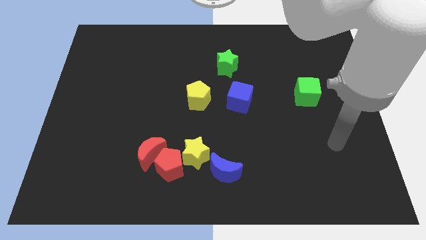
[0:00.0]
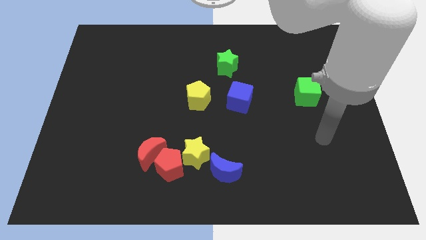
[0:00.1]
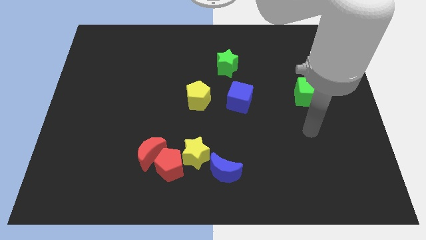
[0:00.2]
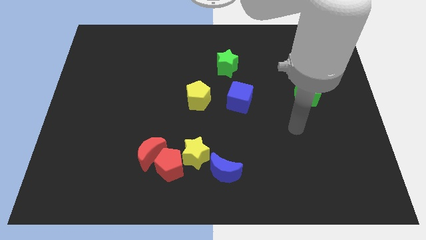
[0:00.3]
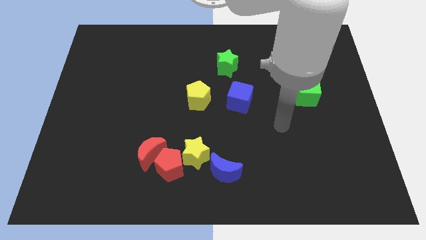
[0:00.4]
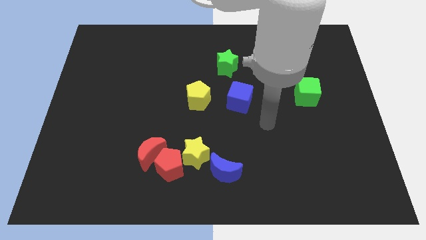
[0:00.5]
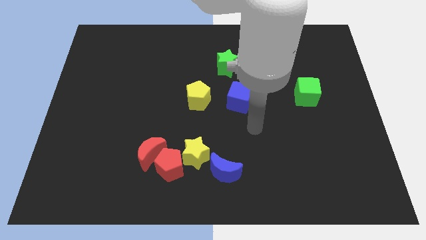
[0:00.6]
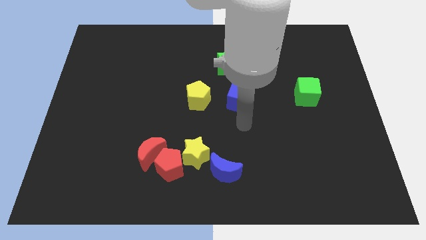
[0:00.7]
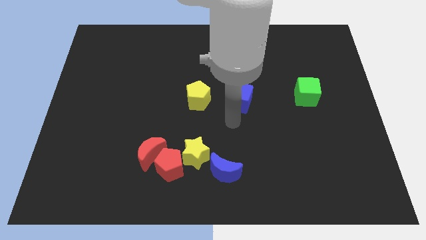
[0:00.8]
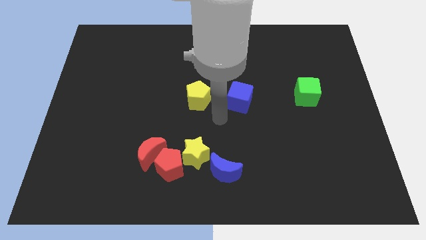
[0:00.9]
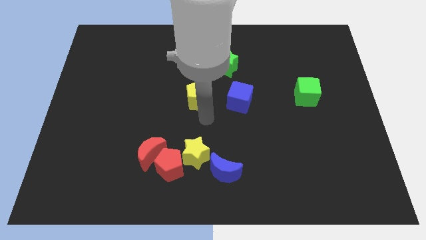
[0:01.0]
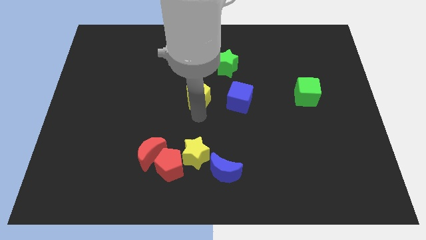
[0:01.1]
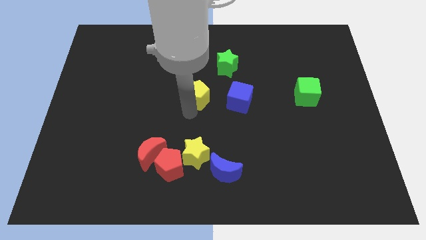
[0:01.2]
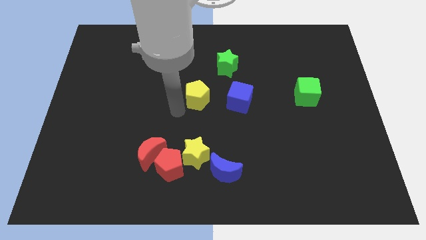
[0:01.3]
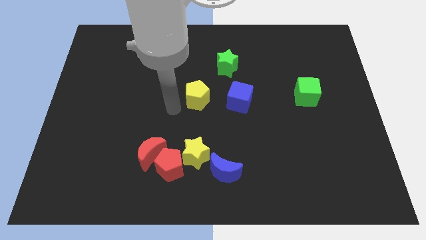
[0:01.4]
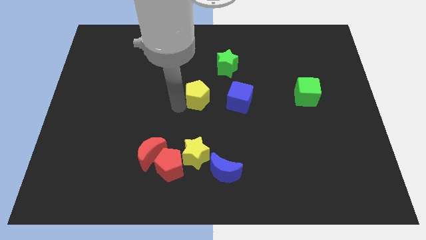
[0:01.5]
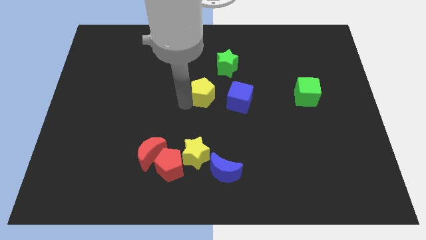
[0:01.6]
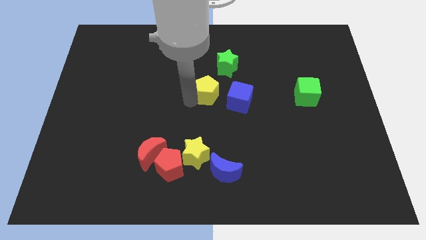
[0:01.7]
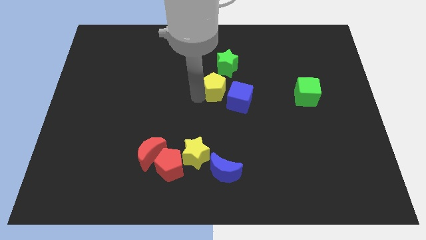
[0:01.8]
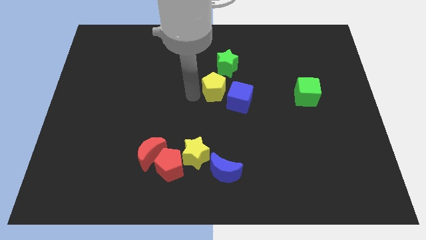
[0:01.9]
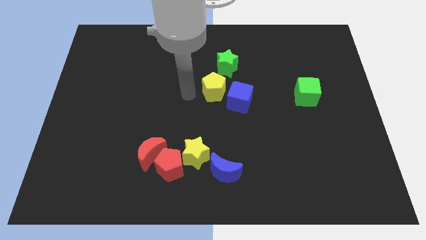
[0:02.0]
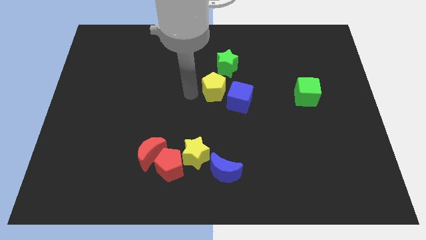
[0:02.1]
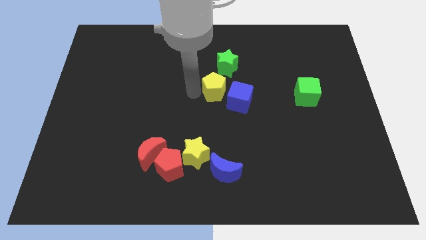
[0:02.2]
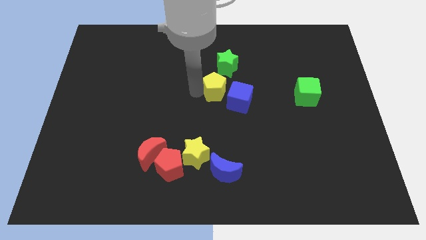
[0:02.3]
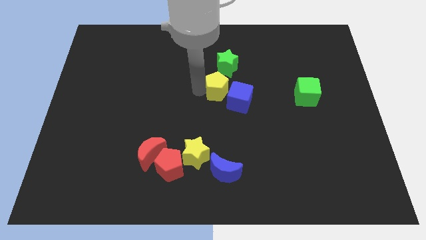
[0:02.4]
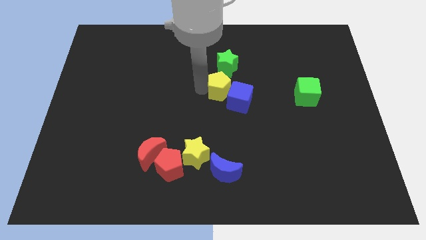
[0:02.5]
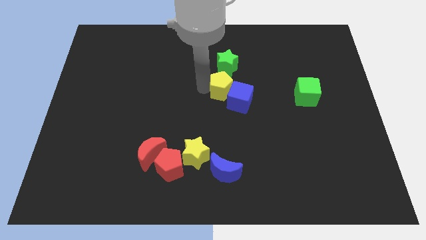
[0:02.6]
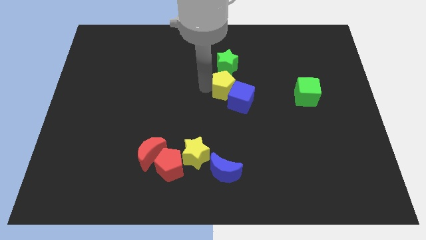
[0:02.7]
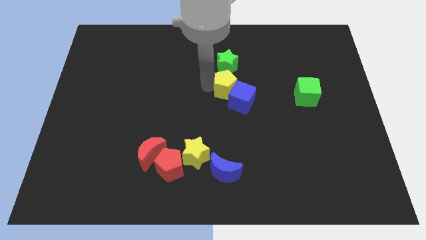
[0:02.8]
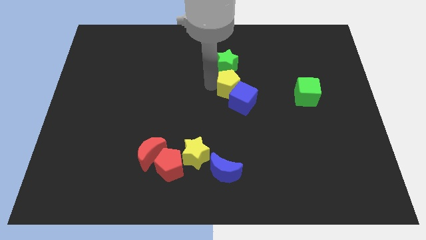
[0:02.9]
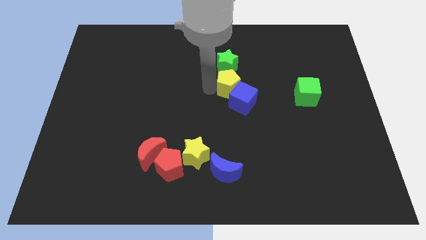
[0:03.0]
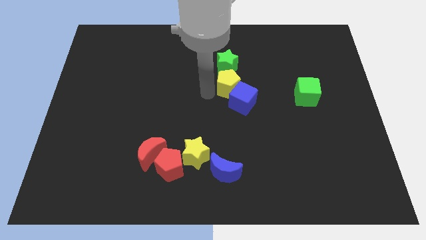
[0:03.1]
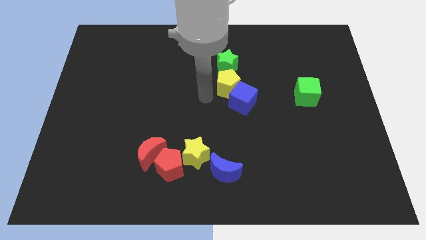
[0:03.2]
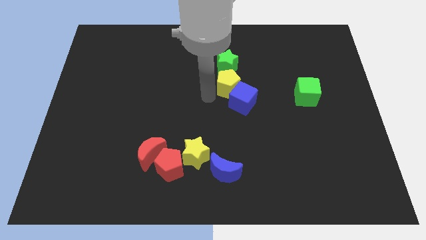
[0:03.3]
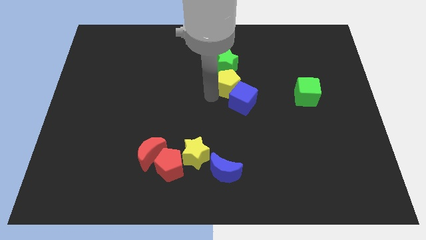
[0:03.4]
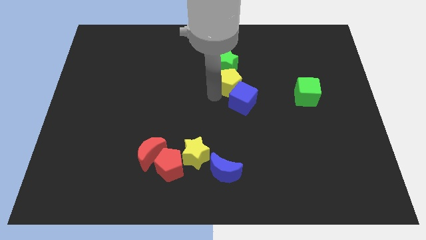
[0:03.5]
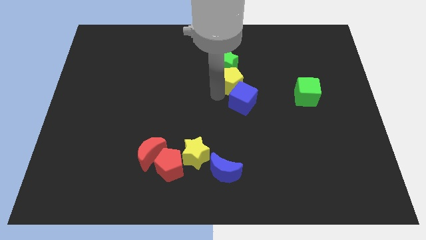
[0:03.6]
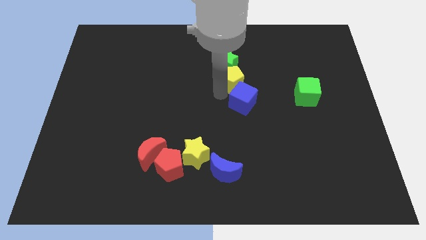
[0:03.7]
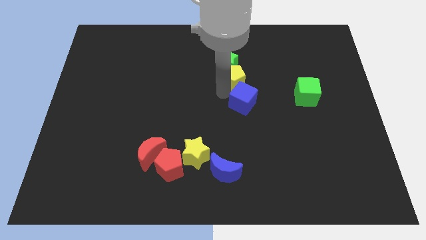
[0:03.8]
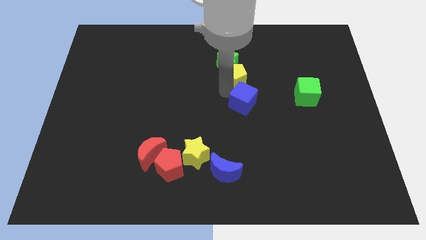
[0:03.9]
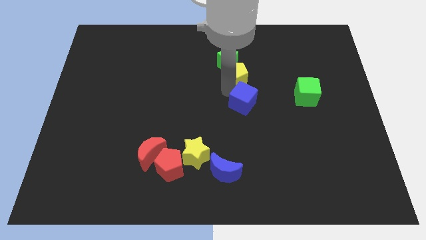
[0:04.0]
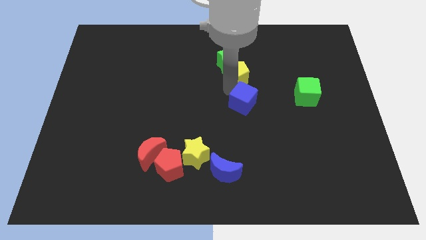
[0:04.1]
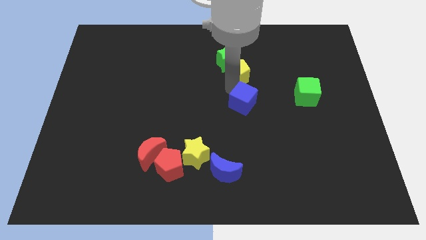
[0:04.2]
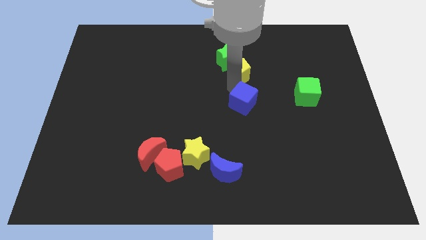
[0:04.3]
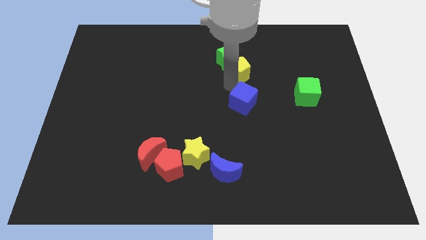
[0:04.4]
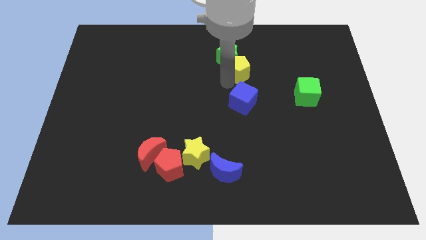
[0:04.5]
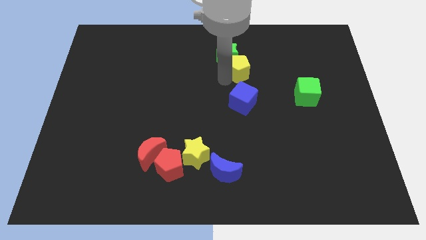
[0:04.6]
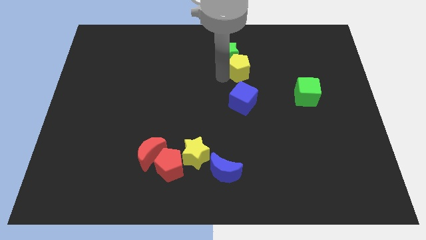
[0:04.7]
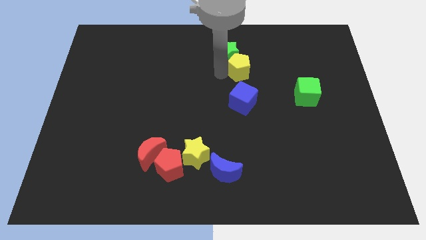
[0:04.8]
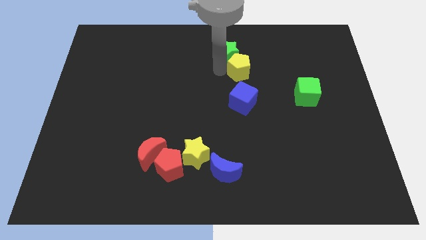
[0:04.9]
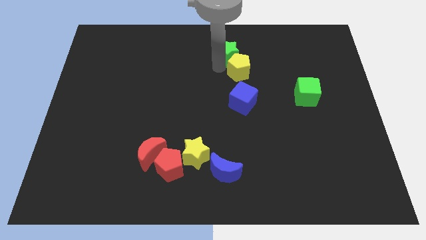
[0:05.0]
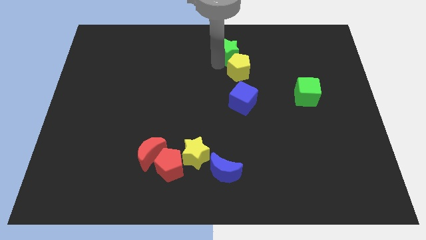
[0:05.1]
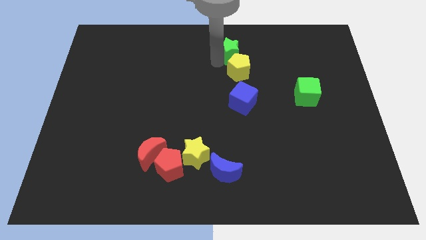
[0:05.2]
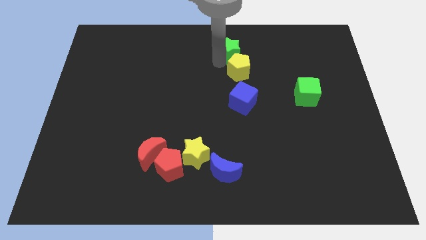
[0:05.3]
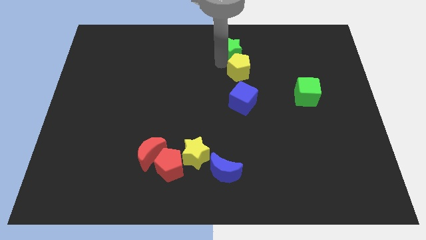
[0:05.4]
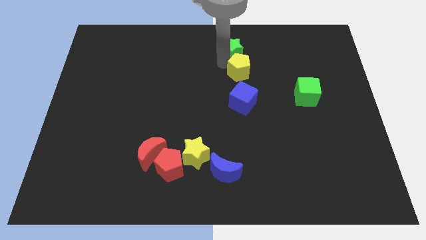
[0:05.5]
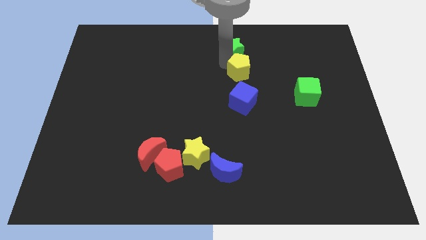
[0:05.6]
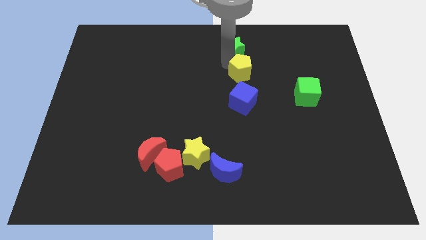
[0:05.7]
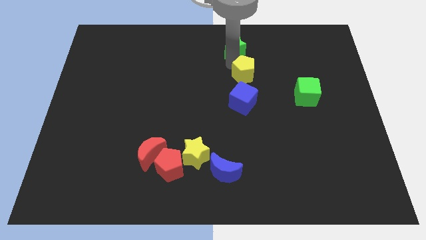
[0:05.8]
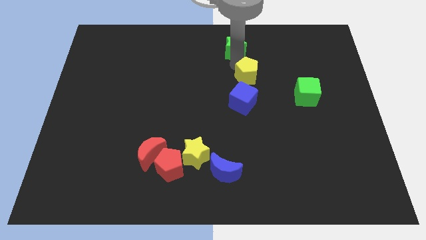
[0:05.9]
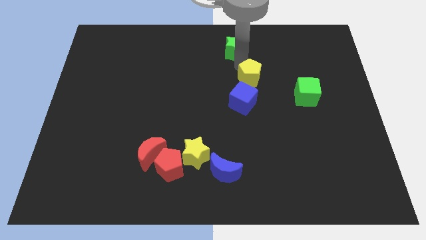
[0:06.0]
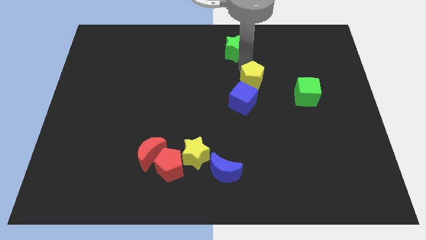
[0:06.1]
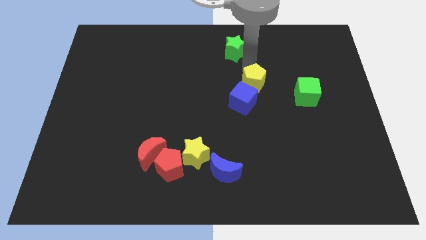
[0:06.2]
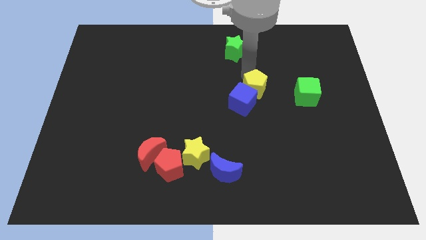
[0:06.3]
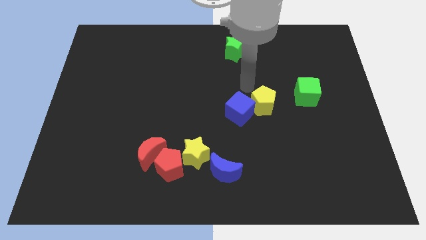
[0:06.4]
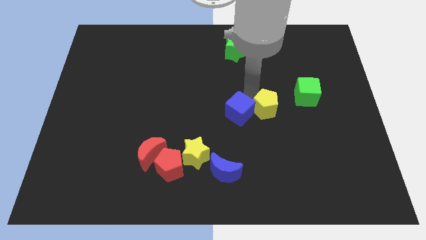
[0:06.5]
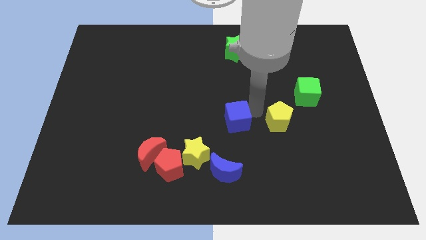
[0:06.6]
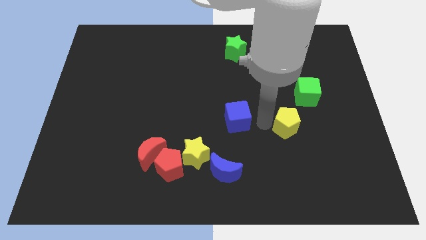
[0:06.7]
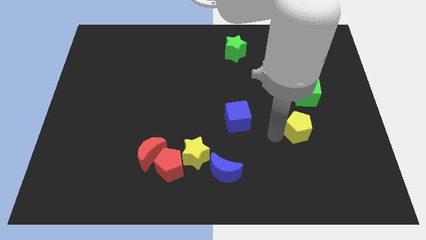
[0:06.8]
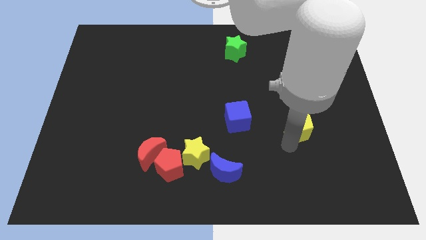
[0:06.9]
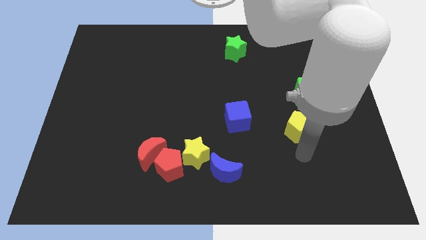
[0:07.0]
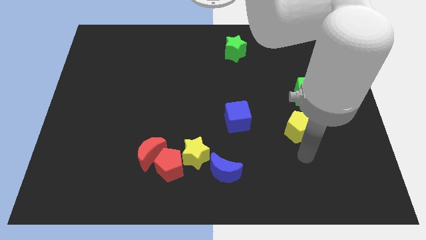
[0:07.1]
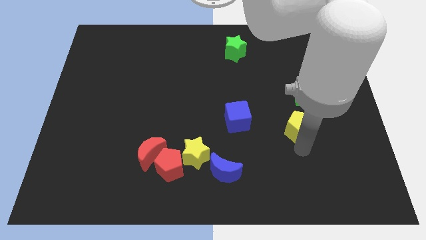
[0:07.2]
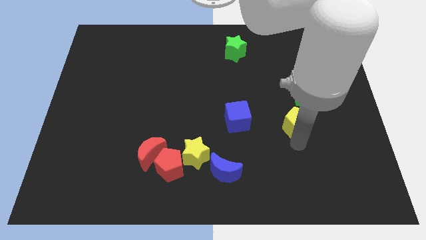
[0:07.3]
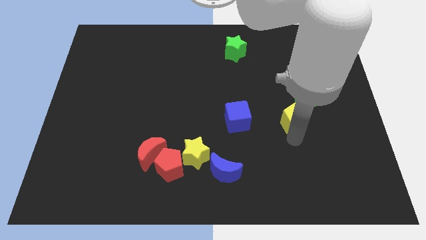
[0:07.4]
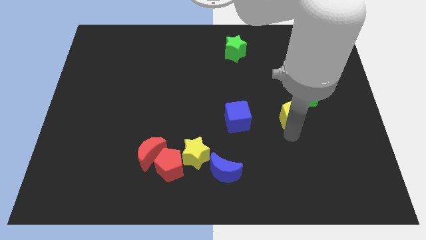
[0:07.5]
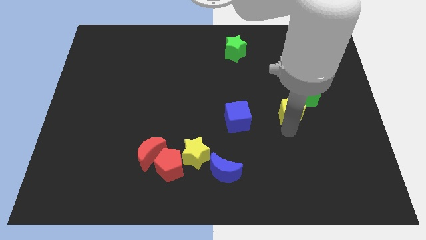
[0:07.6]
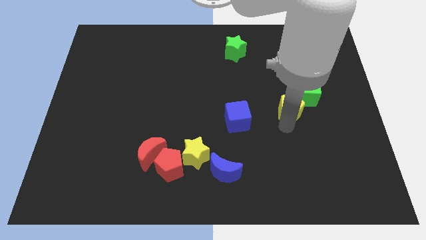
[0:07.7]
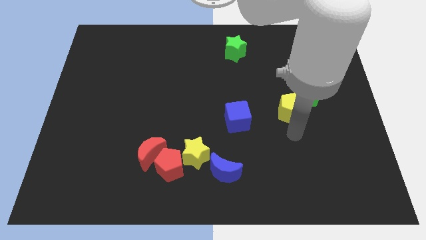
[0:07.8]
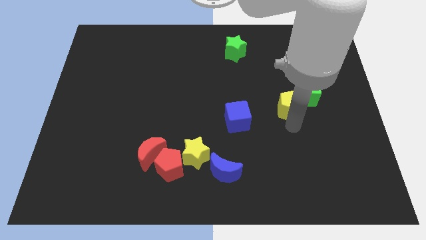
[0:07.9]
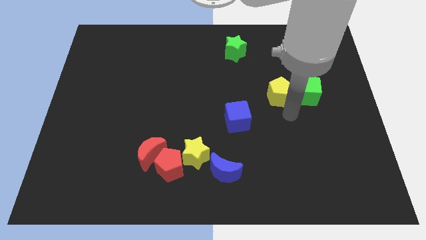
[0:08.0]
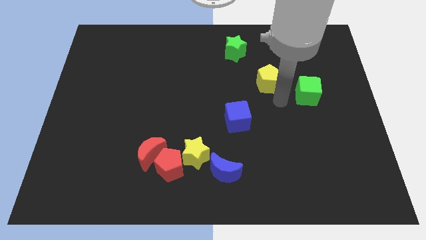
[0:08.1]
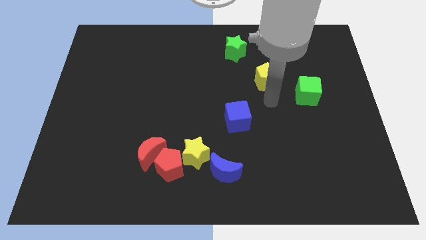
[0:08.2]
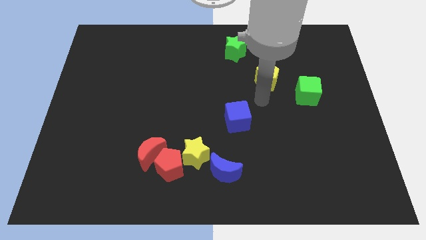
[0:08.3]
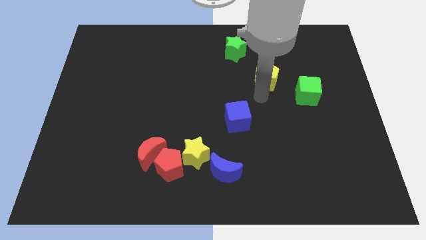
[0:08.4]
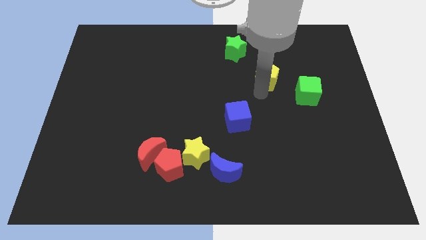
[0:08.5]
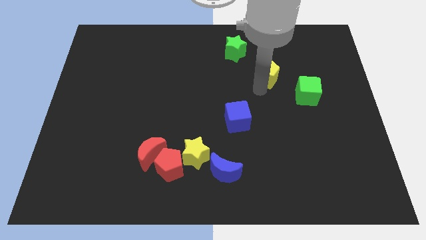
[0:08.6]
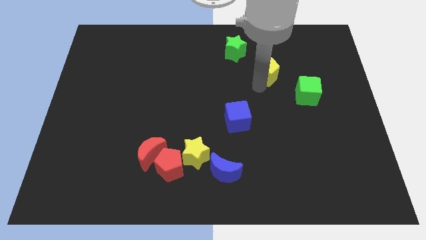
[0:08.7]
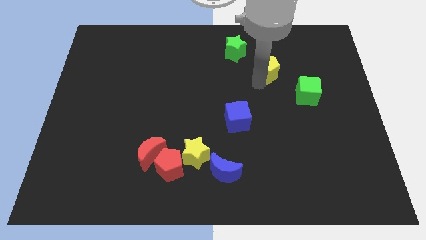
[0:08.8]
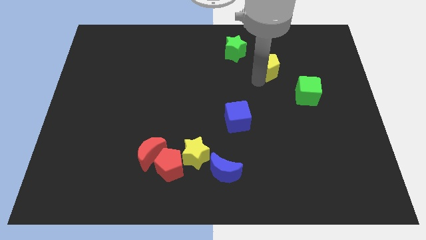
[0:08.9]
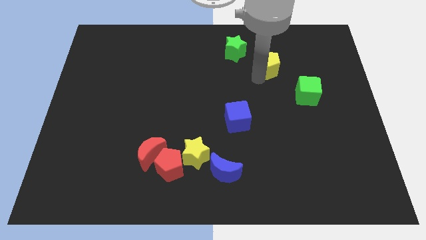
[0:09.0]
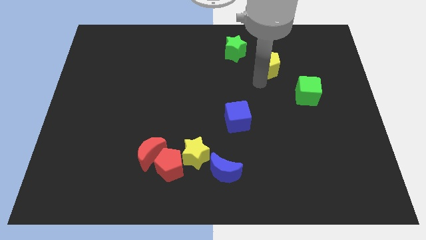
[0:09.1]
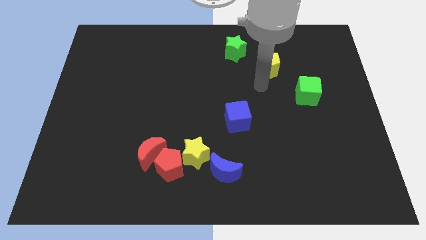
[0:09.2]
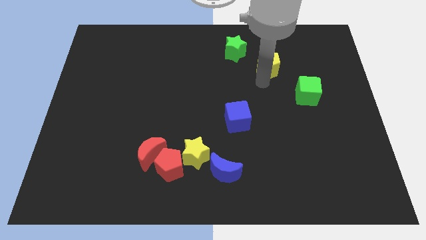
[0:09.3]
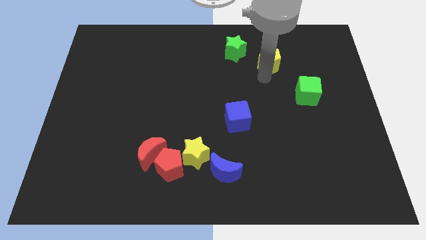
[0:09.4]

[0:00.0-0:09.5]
slide the yellow pentagon just right of the green star
